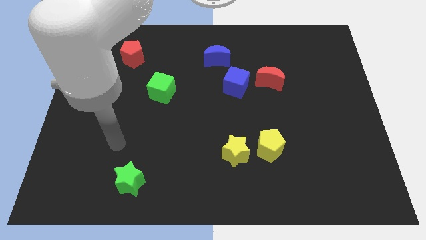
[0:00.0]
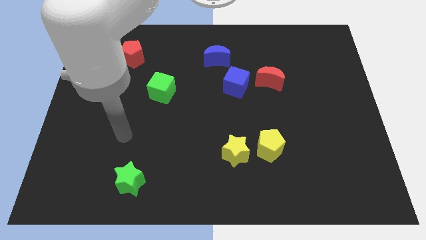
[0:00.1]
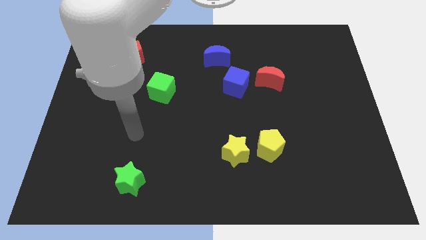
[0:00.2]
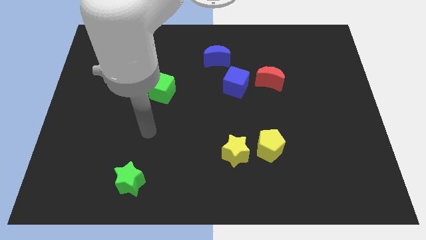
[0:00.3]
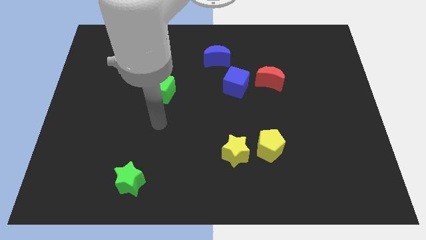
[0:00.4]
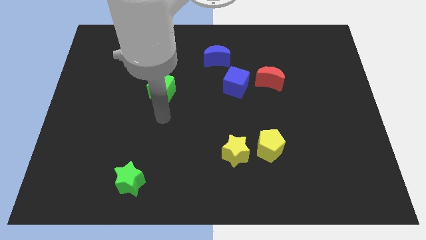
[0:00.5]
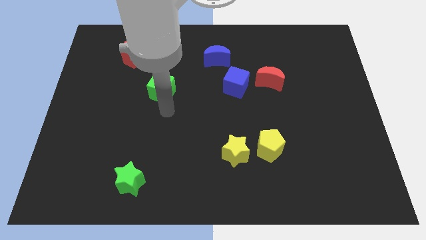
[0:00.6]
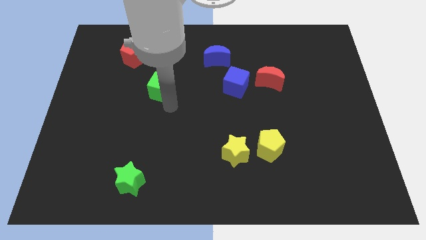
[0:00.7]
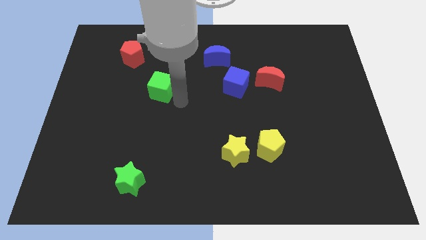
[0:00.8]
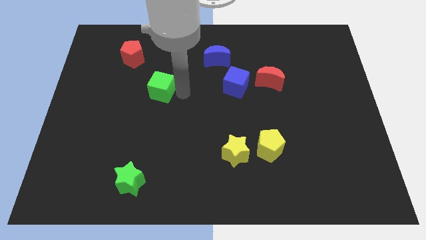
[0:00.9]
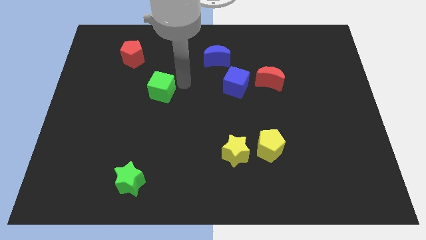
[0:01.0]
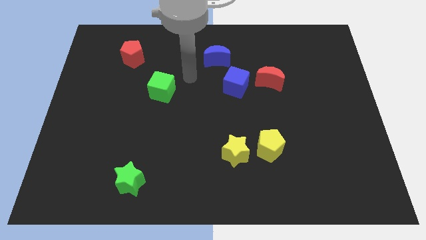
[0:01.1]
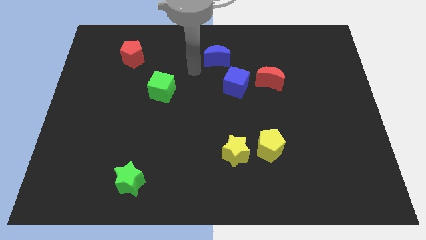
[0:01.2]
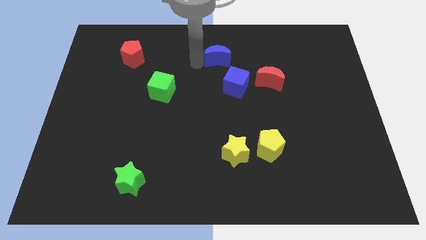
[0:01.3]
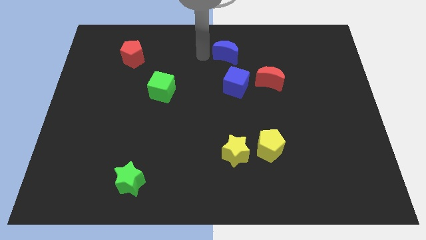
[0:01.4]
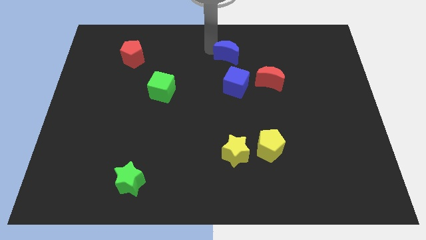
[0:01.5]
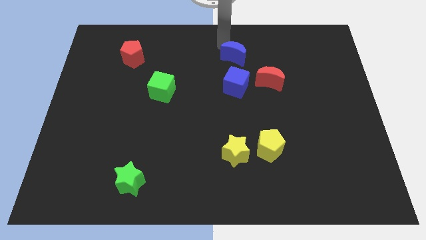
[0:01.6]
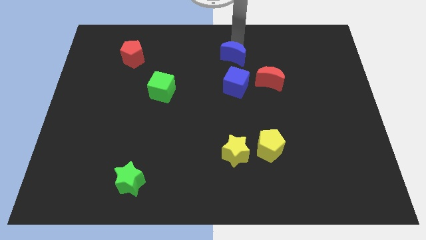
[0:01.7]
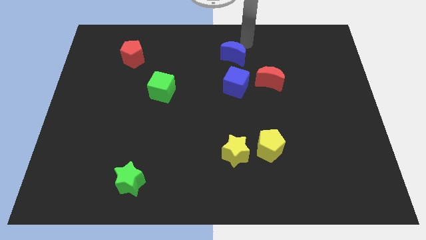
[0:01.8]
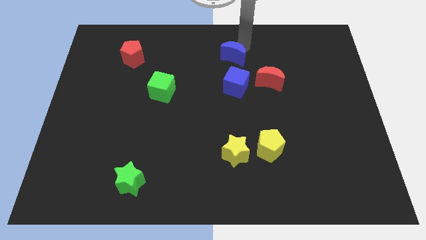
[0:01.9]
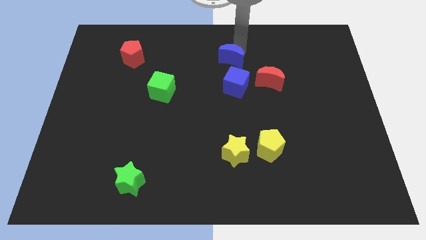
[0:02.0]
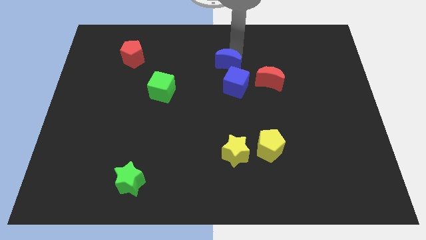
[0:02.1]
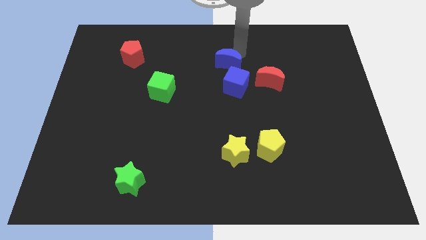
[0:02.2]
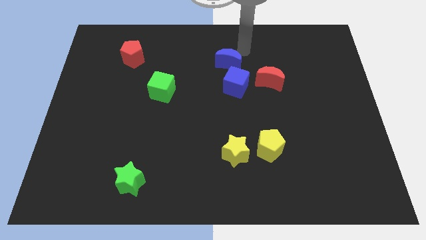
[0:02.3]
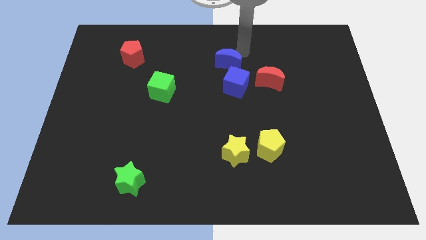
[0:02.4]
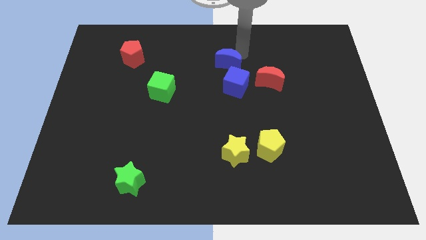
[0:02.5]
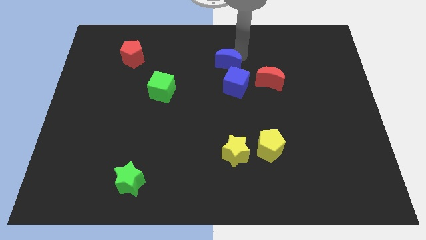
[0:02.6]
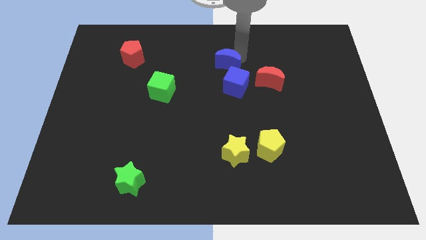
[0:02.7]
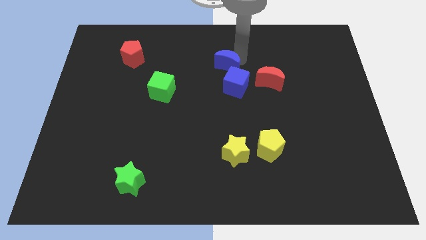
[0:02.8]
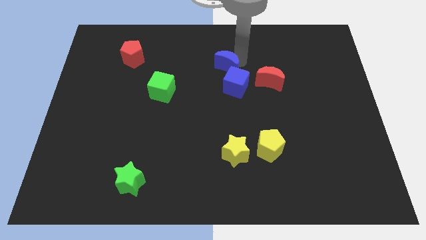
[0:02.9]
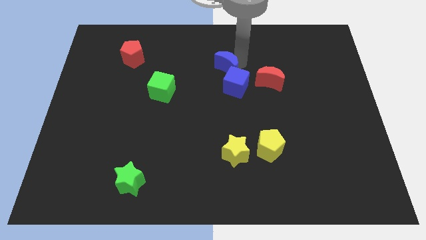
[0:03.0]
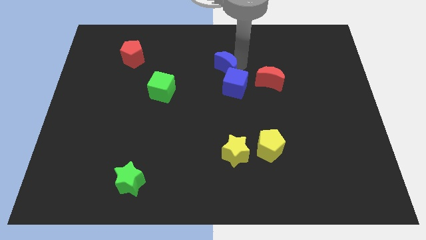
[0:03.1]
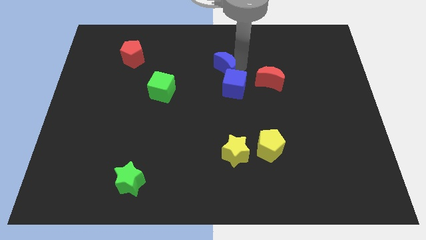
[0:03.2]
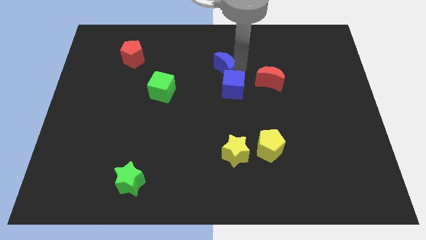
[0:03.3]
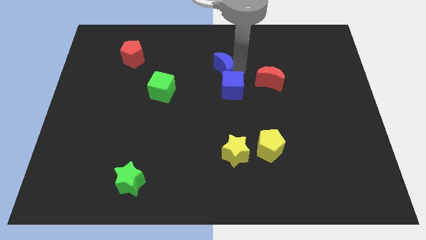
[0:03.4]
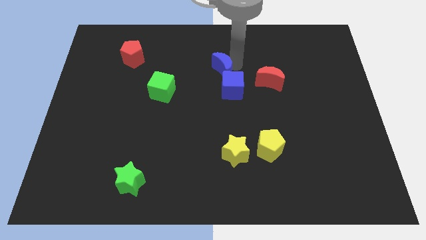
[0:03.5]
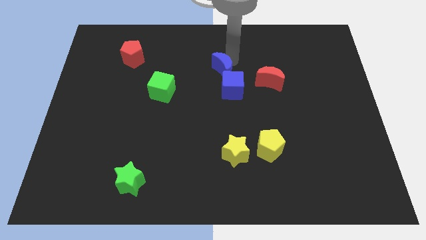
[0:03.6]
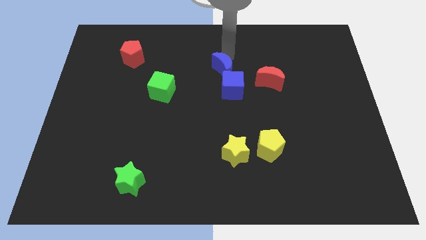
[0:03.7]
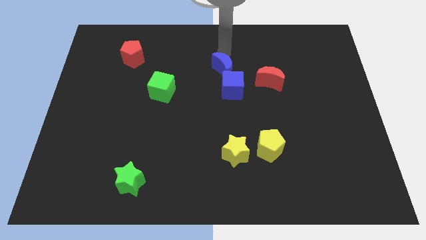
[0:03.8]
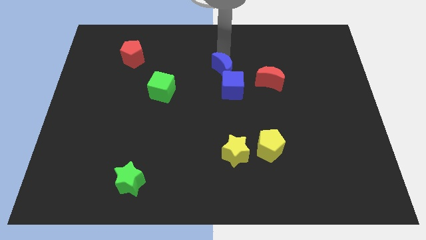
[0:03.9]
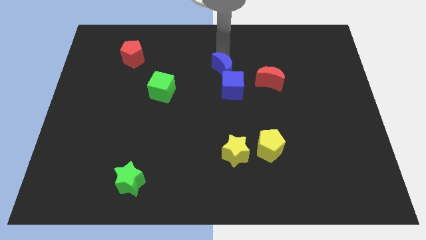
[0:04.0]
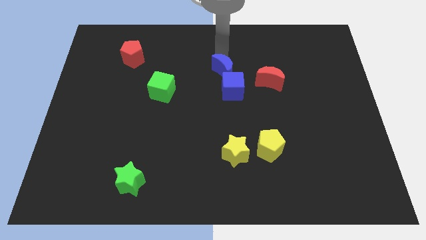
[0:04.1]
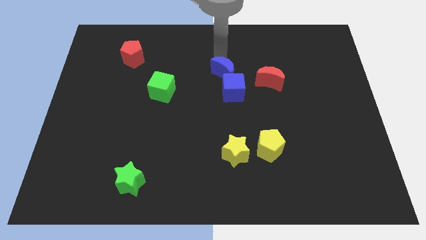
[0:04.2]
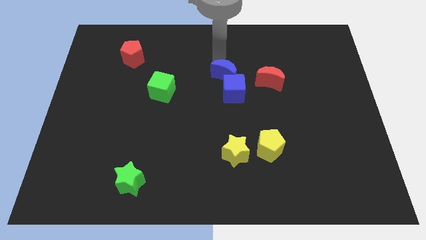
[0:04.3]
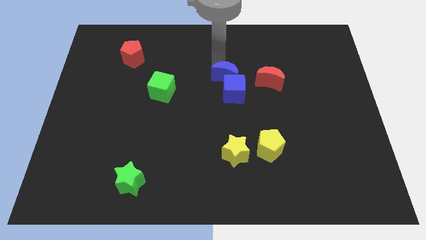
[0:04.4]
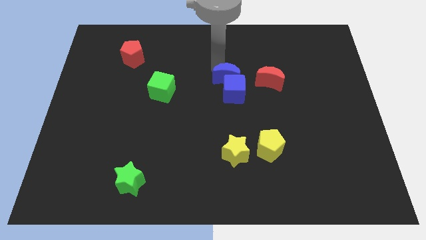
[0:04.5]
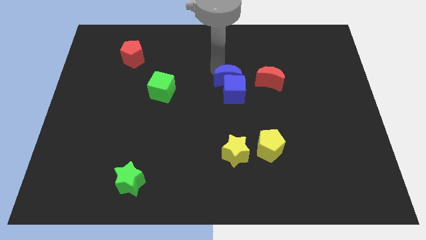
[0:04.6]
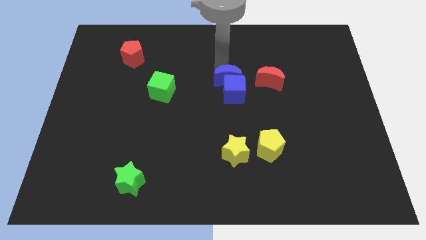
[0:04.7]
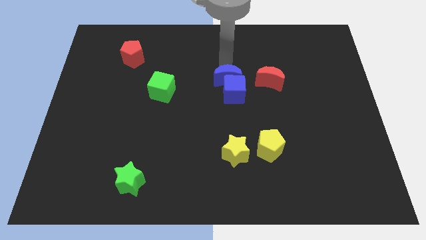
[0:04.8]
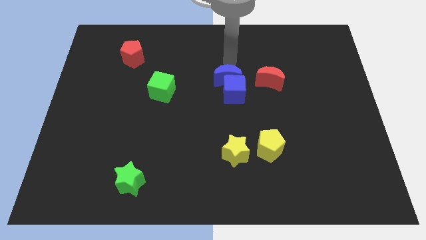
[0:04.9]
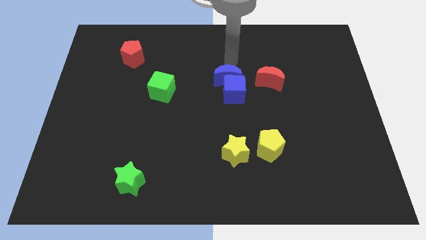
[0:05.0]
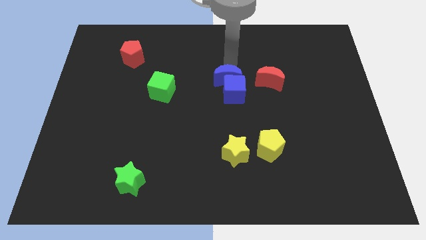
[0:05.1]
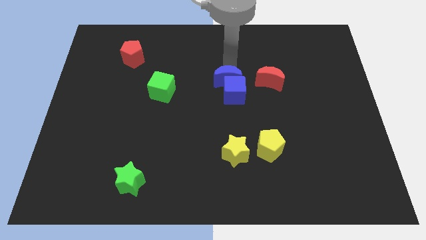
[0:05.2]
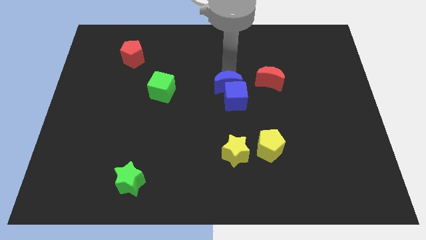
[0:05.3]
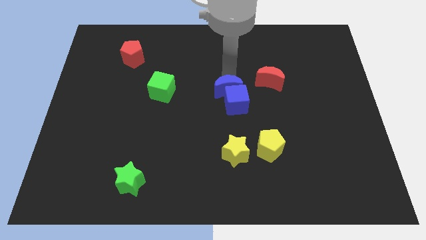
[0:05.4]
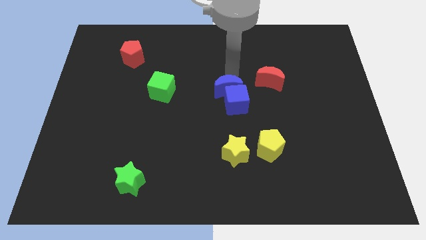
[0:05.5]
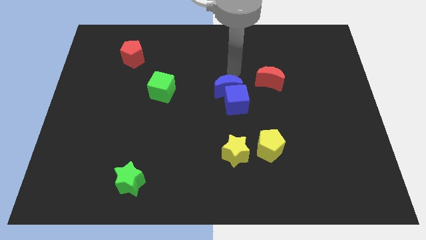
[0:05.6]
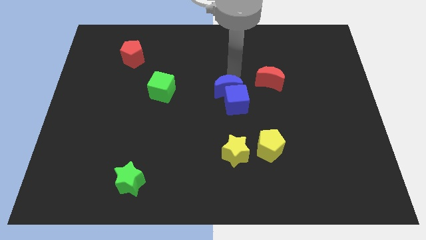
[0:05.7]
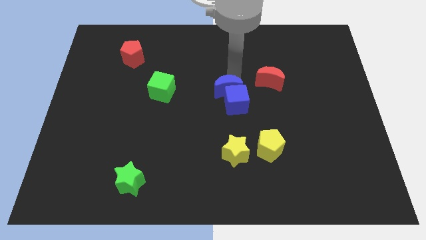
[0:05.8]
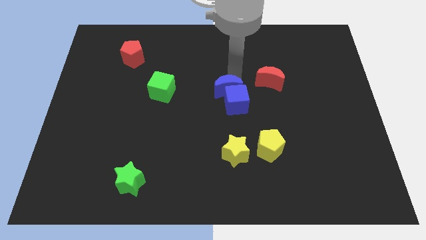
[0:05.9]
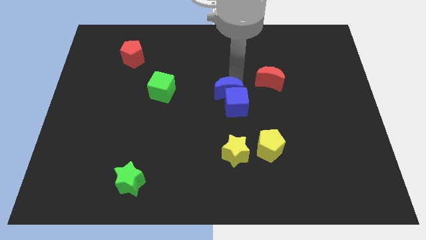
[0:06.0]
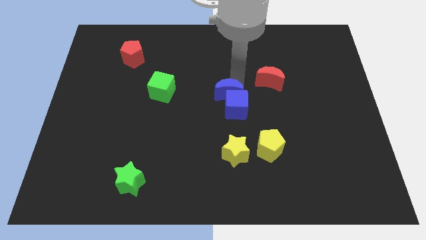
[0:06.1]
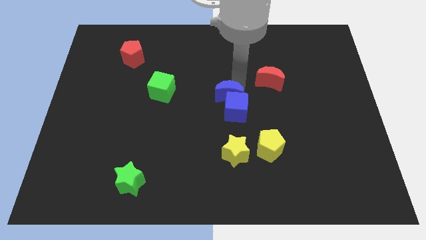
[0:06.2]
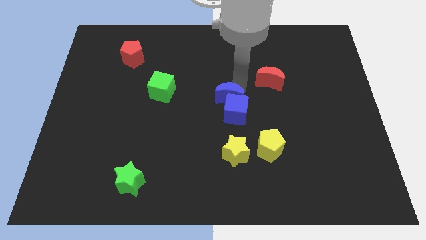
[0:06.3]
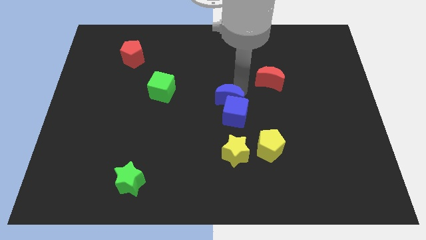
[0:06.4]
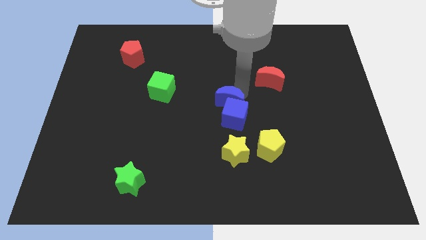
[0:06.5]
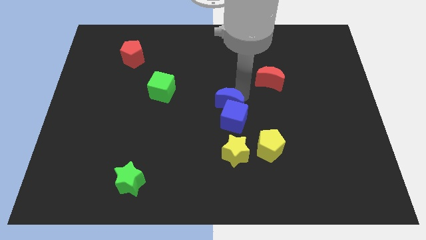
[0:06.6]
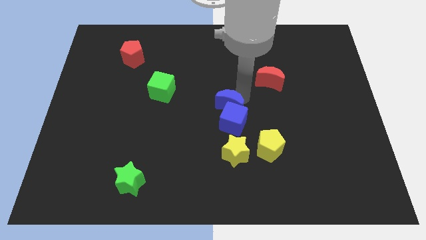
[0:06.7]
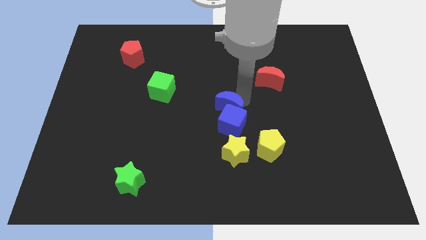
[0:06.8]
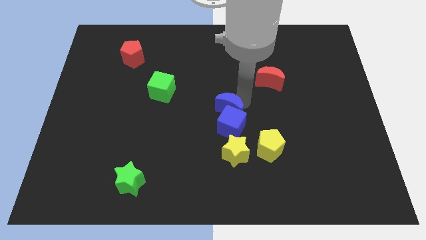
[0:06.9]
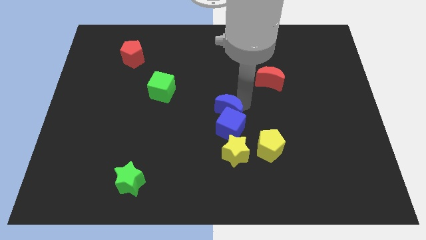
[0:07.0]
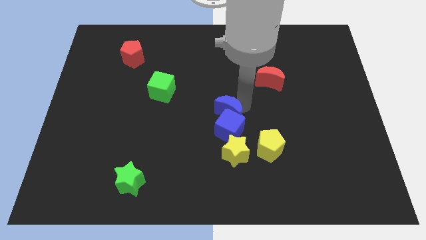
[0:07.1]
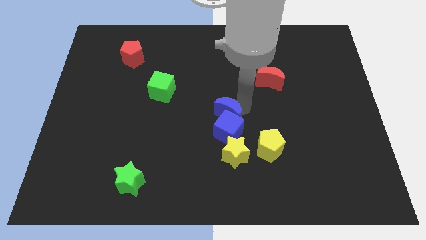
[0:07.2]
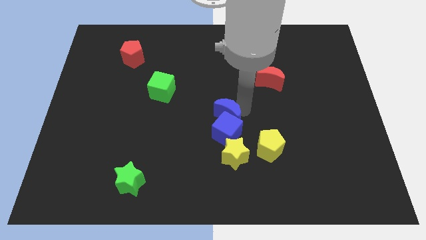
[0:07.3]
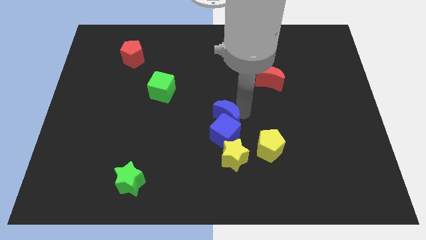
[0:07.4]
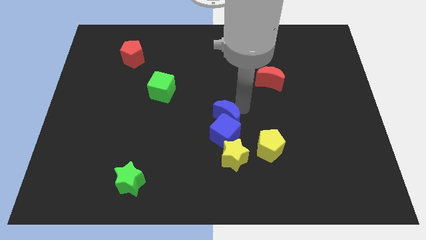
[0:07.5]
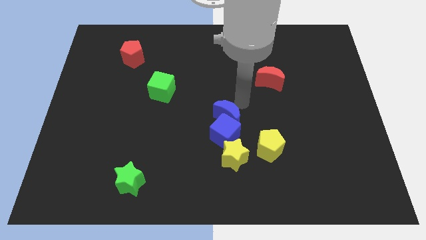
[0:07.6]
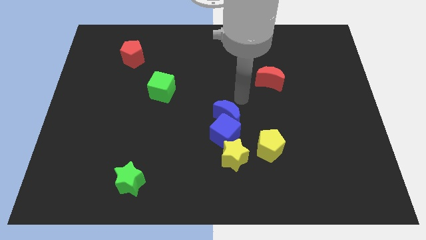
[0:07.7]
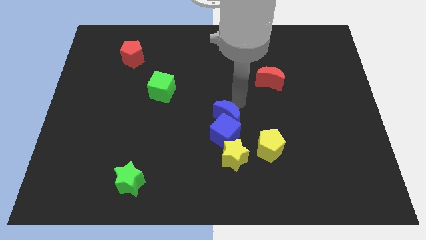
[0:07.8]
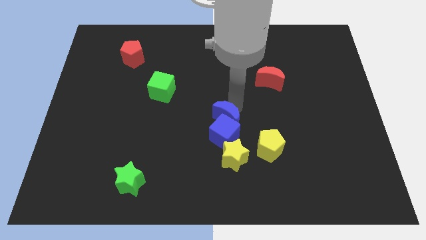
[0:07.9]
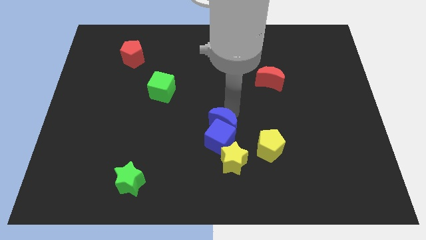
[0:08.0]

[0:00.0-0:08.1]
push the blue moon down
